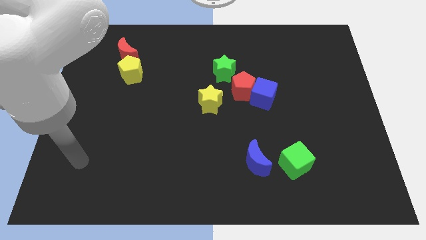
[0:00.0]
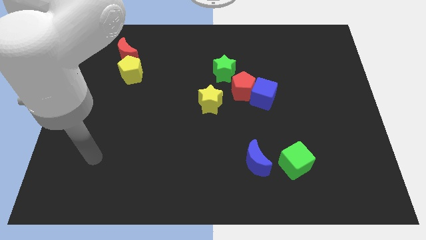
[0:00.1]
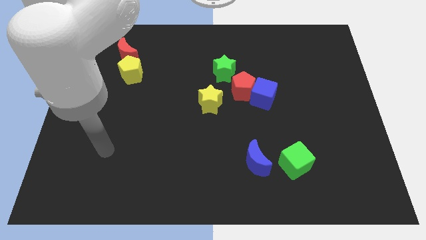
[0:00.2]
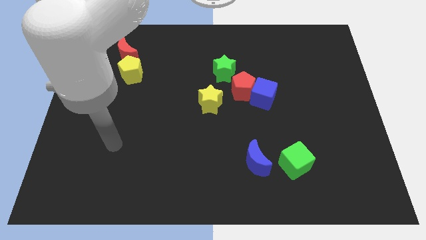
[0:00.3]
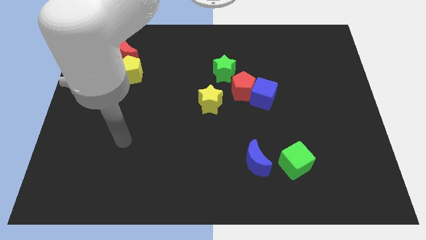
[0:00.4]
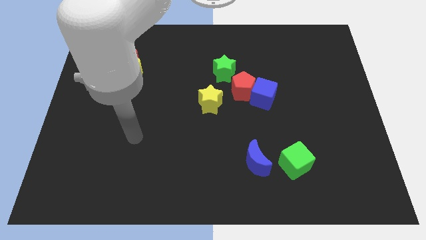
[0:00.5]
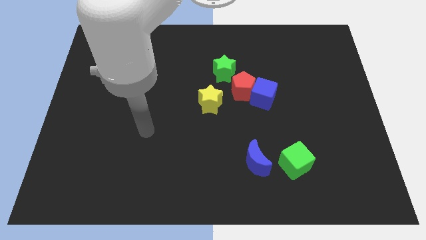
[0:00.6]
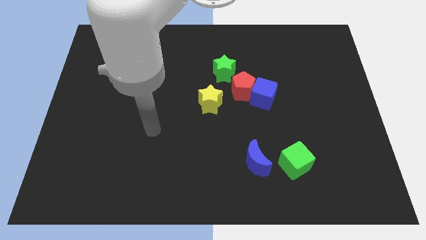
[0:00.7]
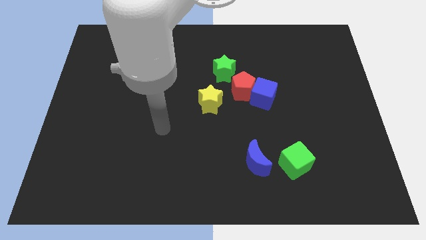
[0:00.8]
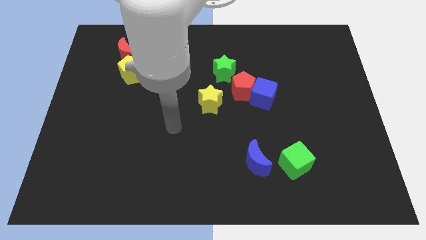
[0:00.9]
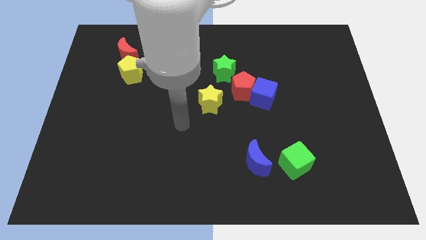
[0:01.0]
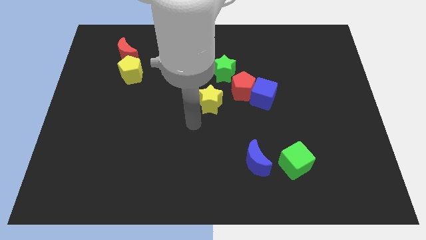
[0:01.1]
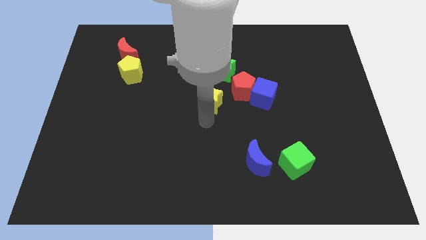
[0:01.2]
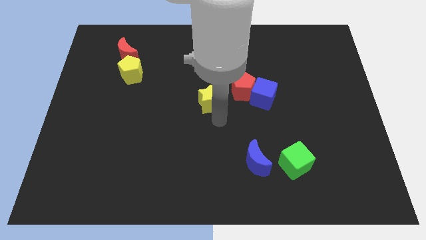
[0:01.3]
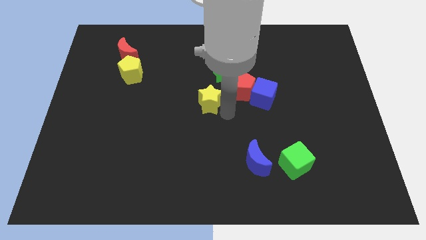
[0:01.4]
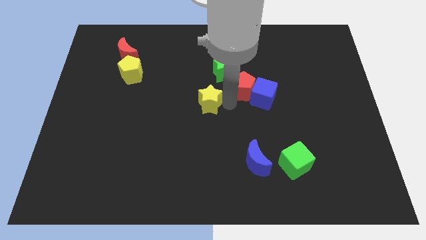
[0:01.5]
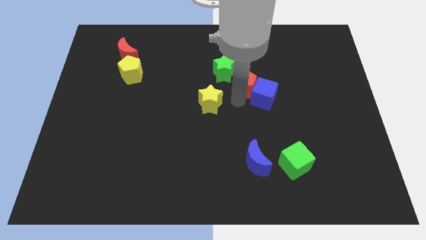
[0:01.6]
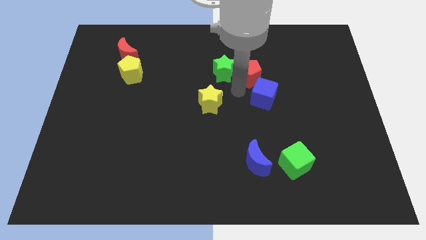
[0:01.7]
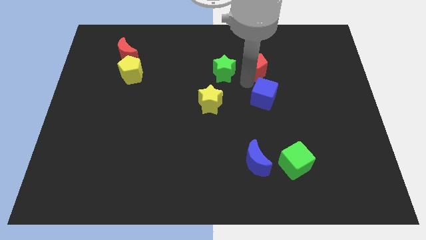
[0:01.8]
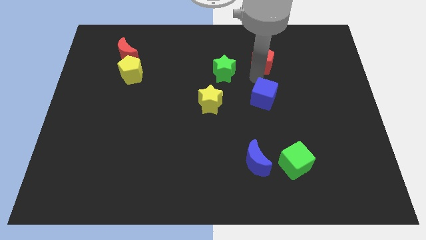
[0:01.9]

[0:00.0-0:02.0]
pull the blue cube apart from the red pentagon

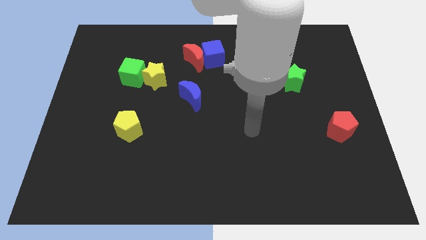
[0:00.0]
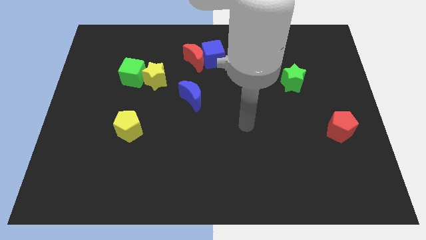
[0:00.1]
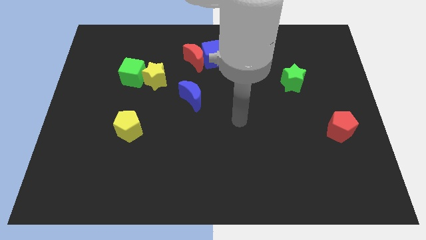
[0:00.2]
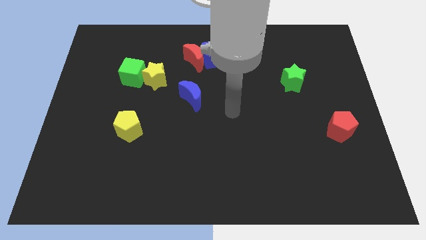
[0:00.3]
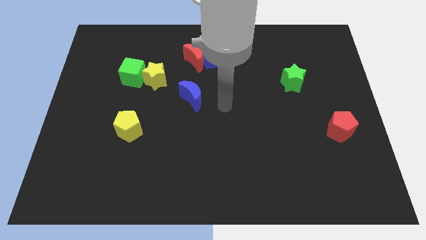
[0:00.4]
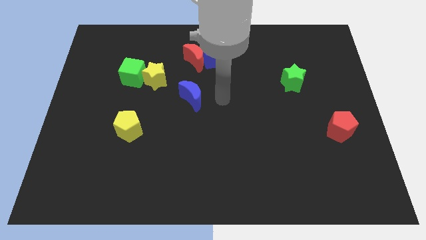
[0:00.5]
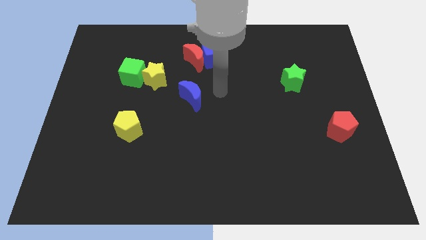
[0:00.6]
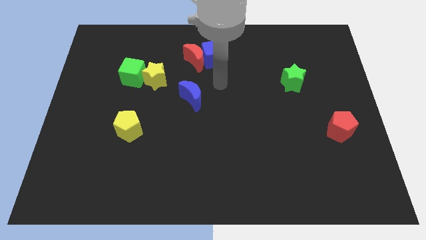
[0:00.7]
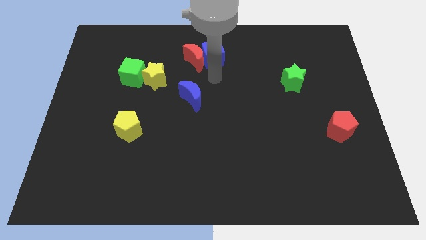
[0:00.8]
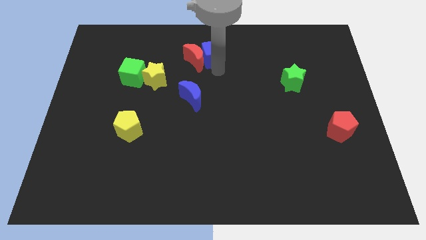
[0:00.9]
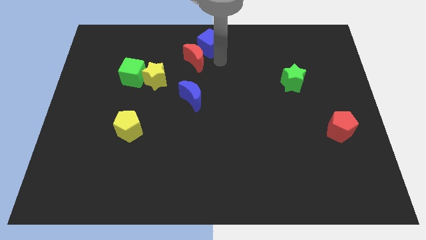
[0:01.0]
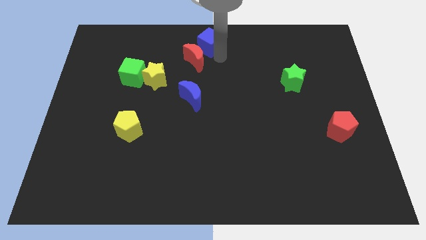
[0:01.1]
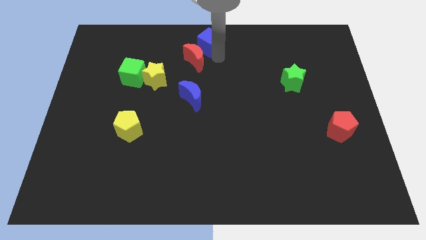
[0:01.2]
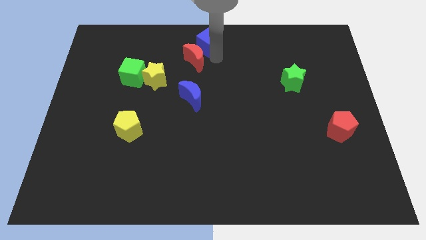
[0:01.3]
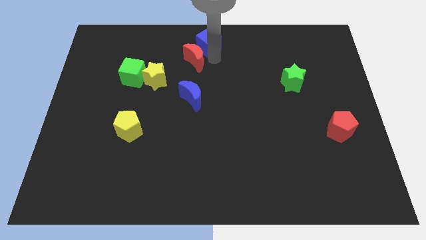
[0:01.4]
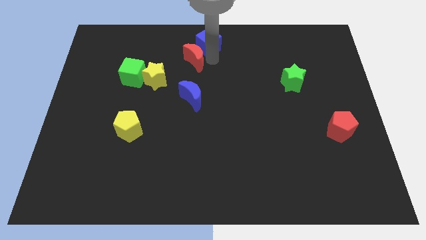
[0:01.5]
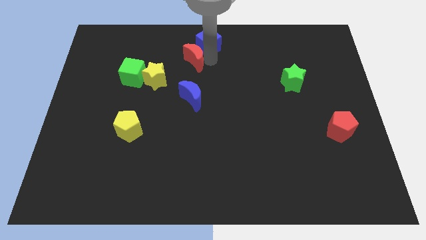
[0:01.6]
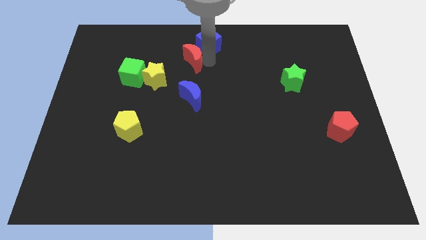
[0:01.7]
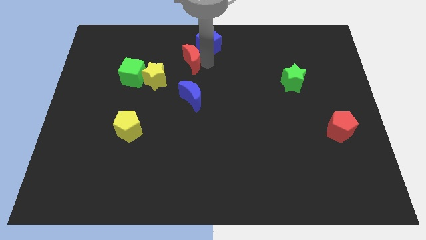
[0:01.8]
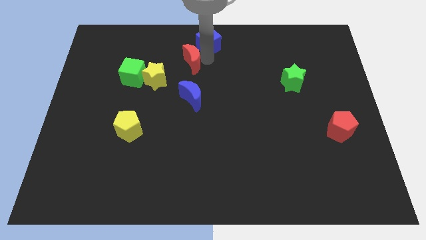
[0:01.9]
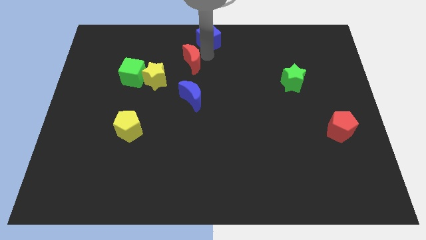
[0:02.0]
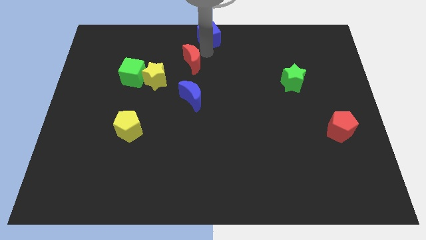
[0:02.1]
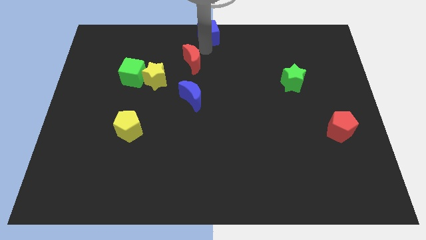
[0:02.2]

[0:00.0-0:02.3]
move the red moon away from the blue cube

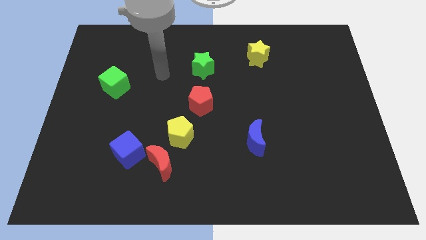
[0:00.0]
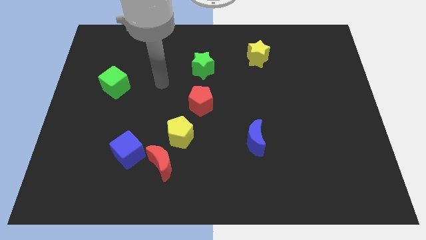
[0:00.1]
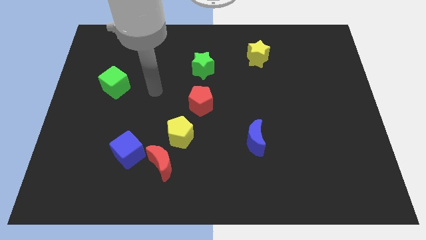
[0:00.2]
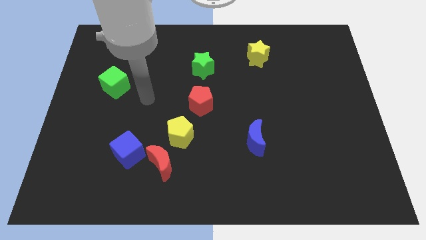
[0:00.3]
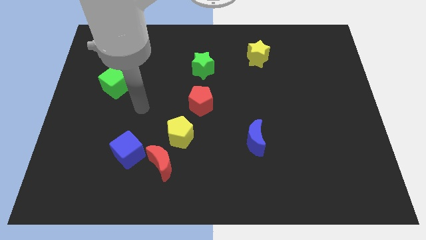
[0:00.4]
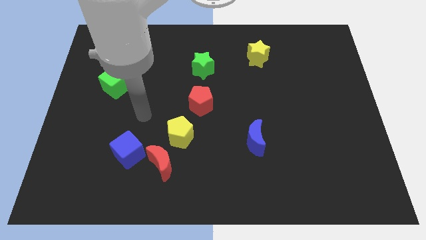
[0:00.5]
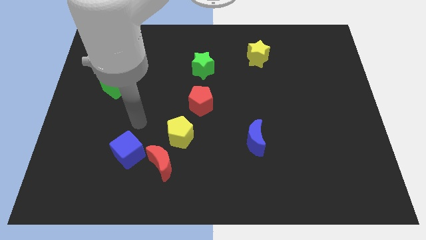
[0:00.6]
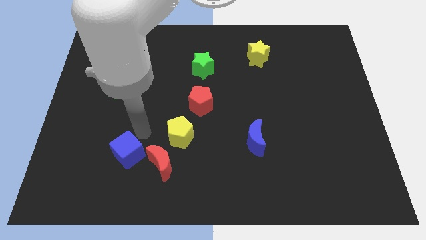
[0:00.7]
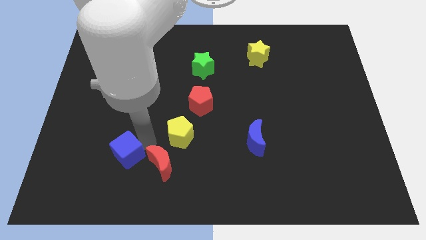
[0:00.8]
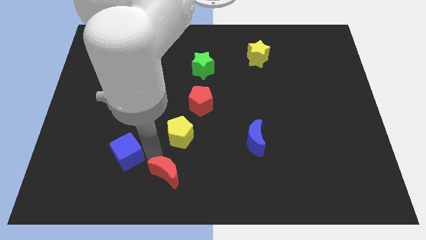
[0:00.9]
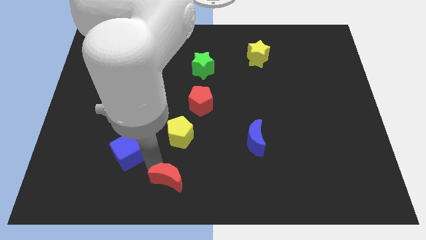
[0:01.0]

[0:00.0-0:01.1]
separate the blue cube from the red moon

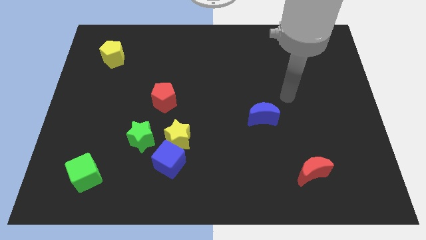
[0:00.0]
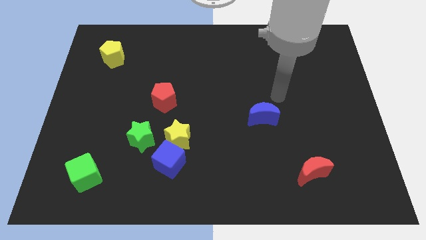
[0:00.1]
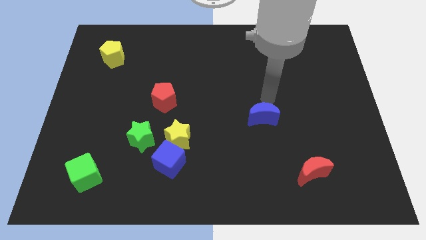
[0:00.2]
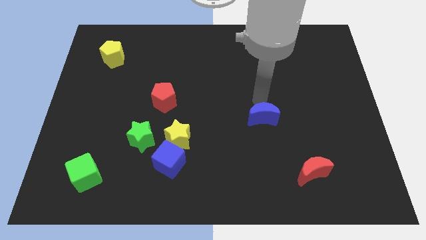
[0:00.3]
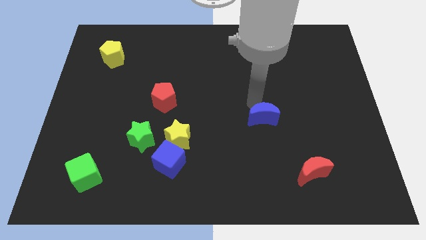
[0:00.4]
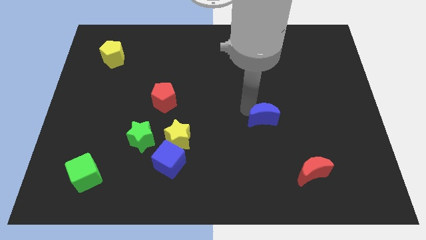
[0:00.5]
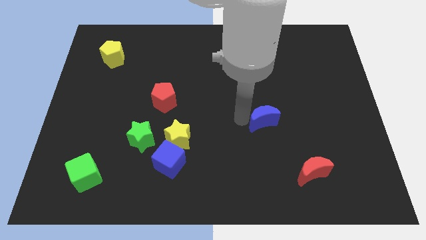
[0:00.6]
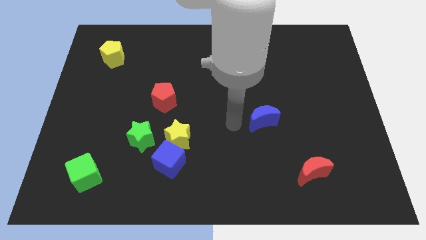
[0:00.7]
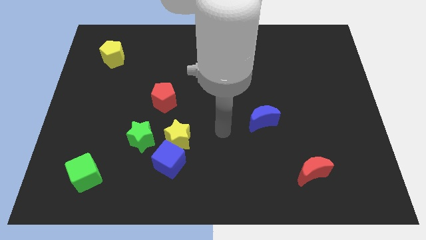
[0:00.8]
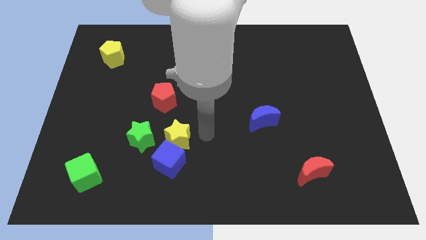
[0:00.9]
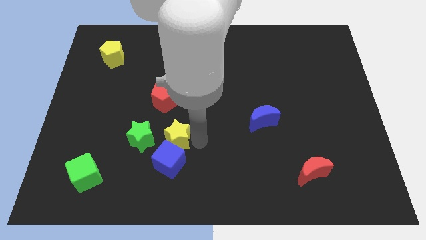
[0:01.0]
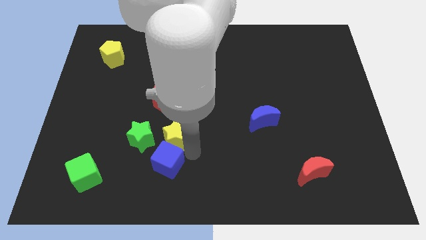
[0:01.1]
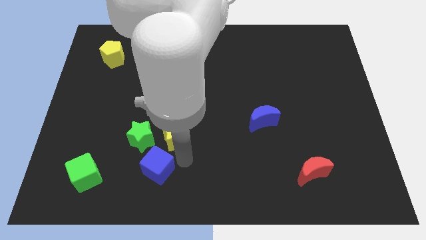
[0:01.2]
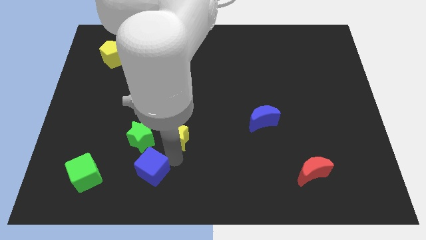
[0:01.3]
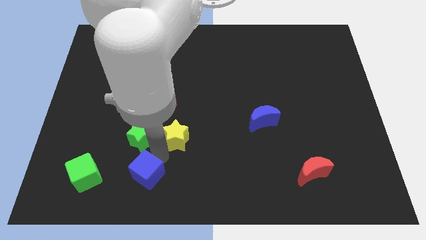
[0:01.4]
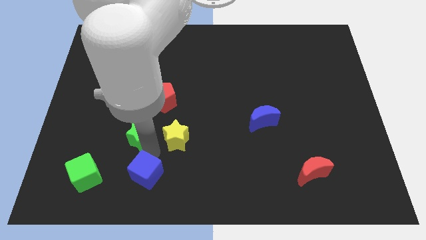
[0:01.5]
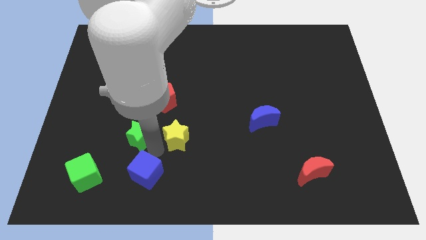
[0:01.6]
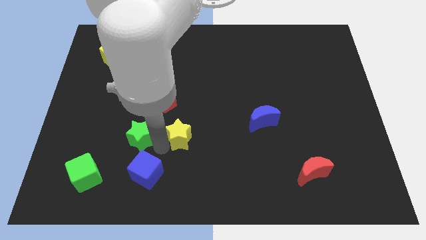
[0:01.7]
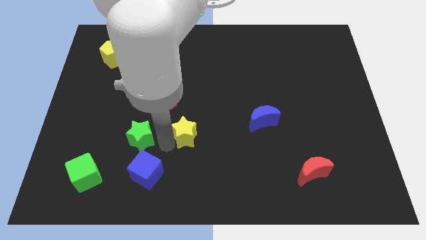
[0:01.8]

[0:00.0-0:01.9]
separate the yellow star from the blue cube and green star

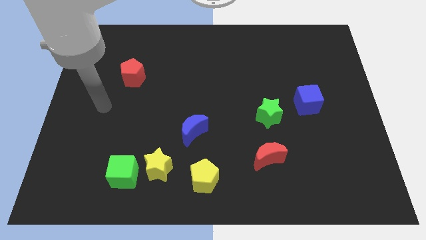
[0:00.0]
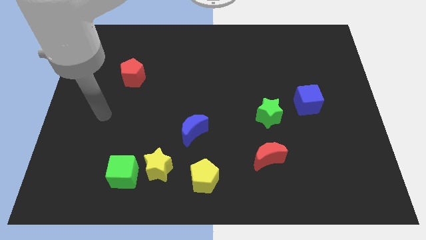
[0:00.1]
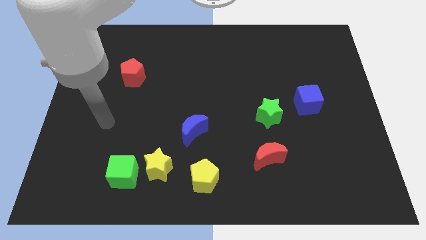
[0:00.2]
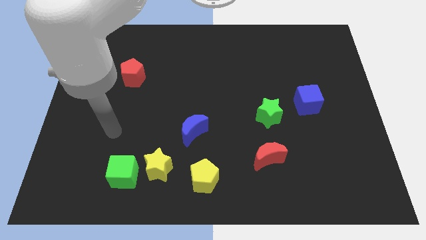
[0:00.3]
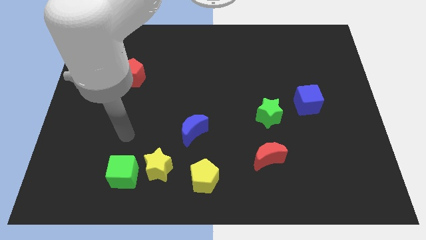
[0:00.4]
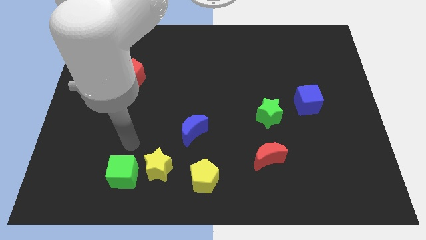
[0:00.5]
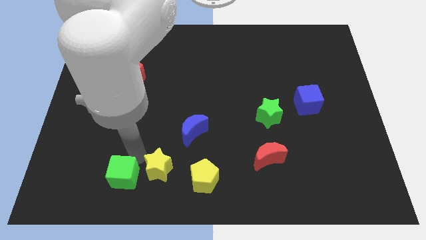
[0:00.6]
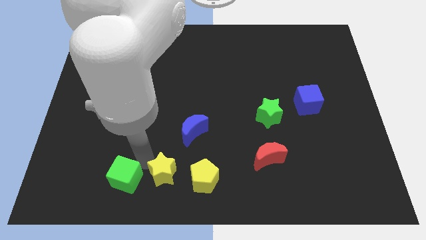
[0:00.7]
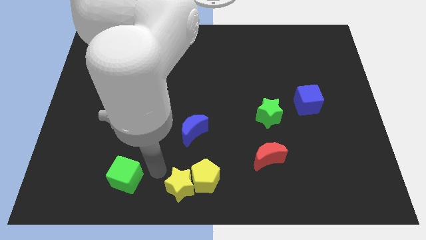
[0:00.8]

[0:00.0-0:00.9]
separate the green cube from the yellow star

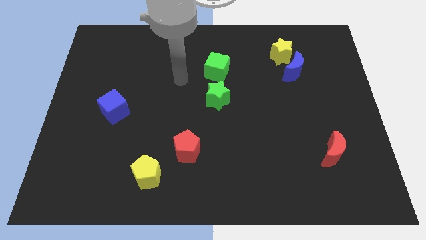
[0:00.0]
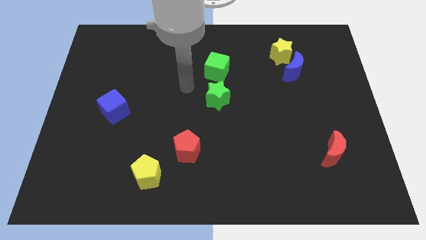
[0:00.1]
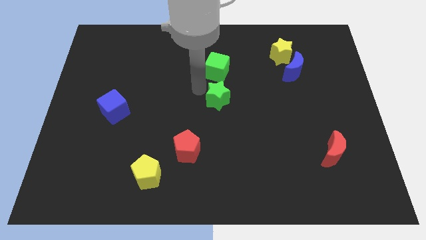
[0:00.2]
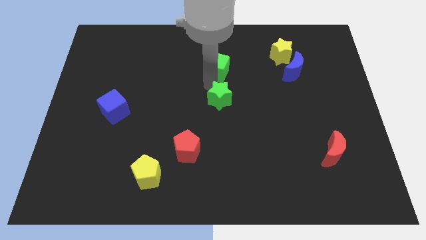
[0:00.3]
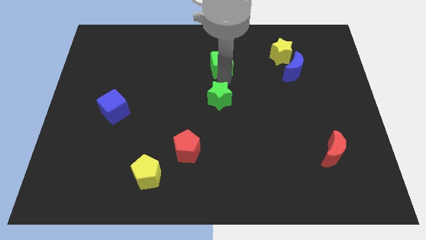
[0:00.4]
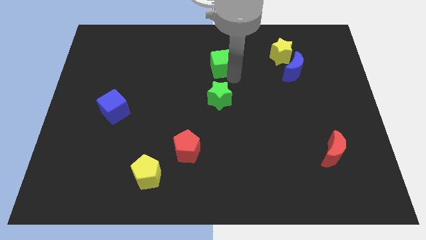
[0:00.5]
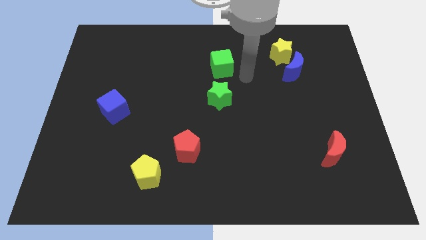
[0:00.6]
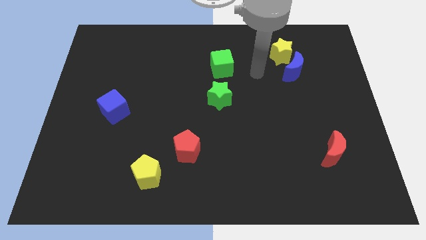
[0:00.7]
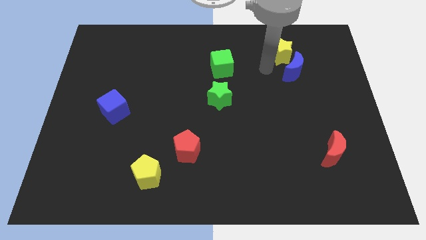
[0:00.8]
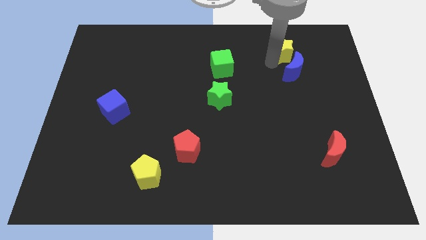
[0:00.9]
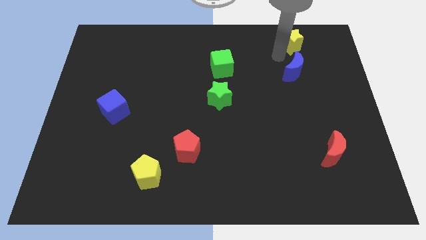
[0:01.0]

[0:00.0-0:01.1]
separate the blue moon from the yellow star
